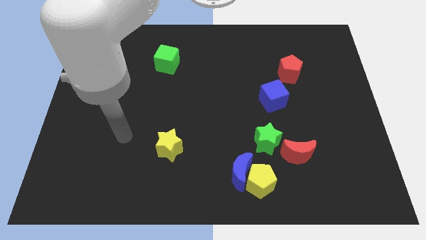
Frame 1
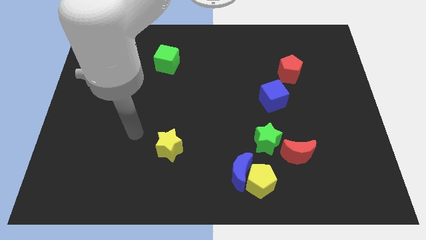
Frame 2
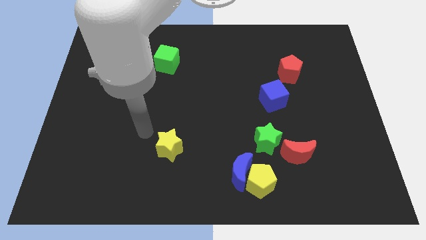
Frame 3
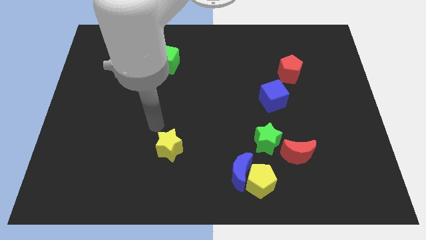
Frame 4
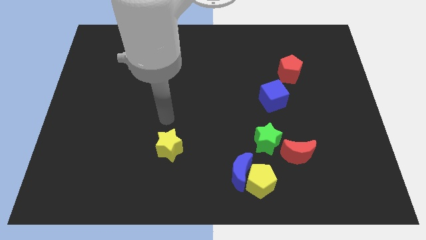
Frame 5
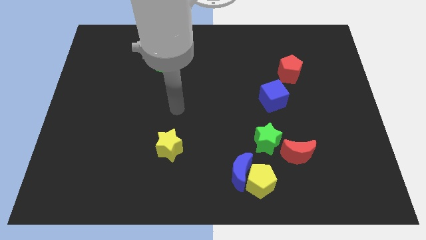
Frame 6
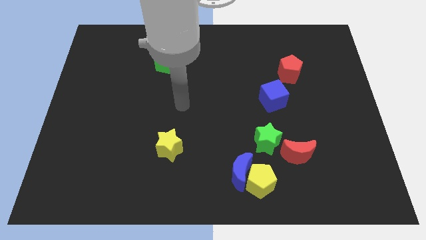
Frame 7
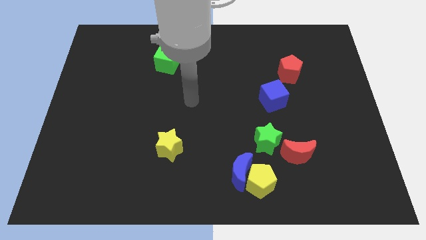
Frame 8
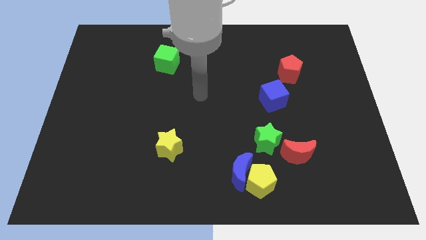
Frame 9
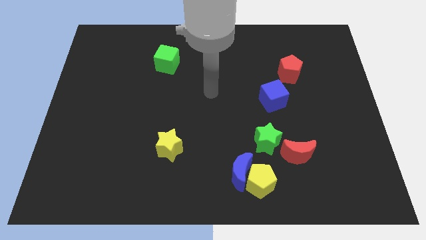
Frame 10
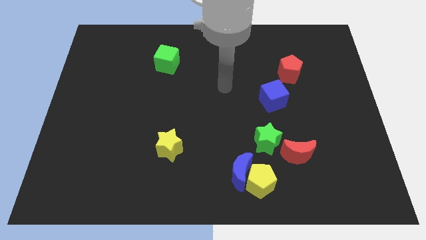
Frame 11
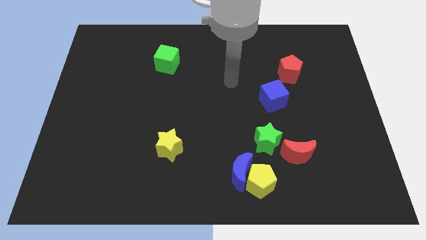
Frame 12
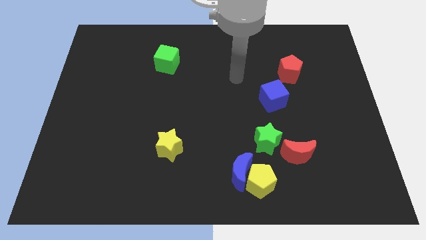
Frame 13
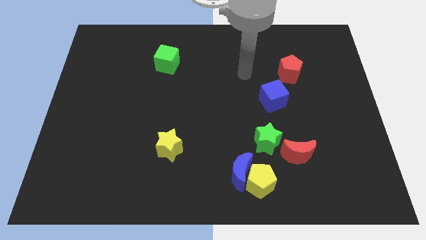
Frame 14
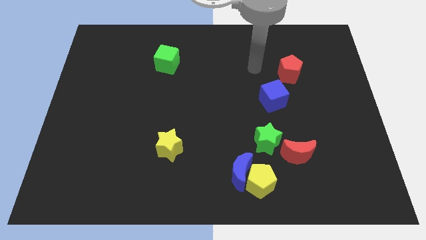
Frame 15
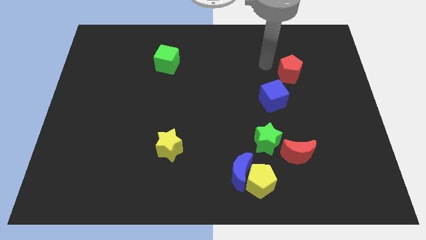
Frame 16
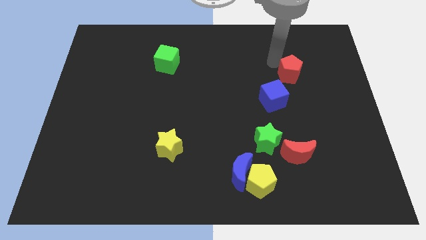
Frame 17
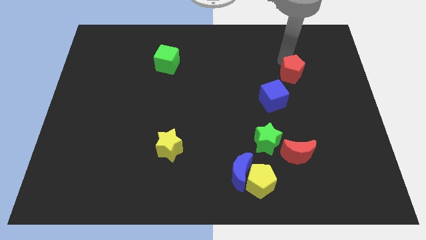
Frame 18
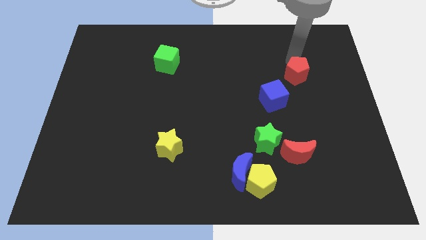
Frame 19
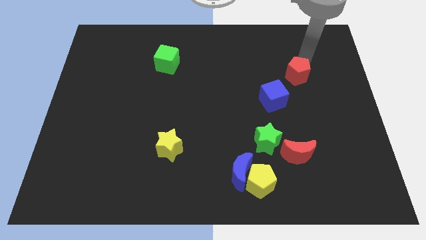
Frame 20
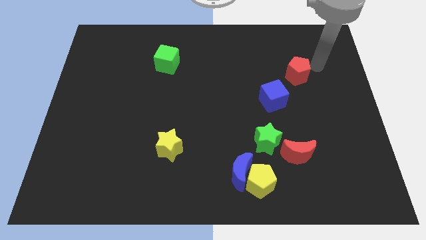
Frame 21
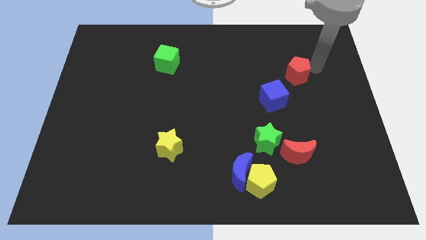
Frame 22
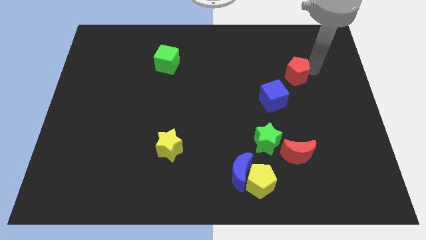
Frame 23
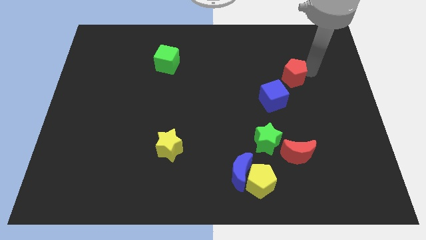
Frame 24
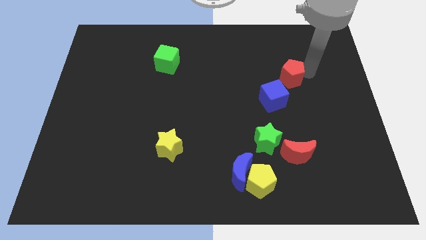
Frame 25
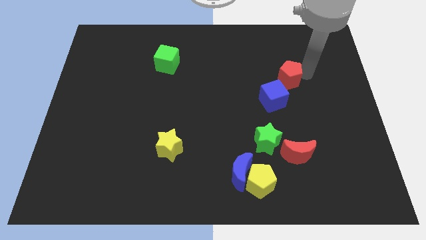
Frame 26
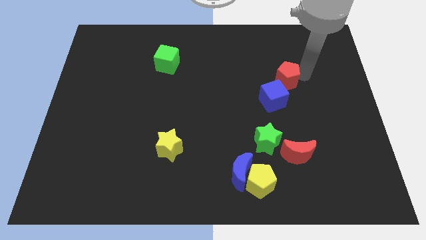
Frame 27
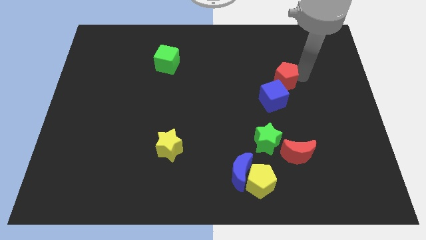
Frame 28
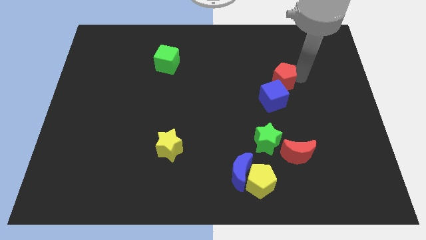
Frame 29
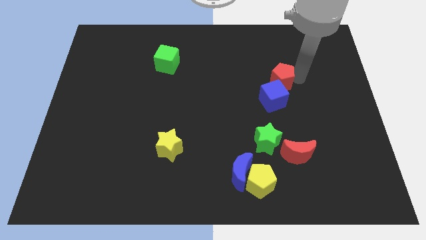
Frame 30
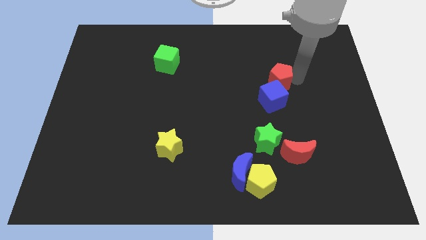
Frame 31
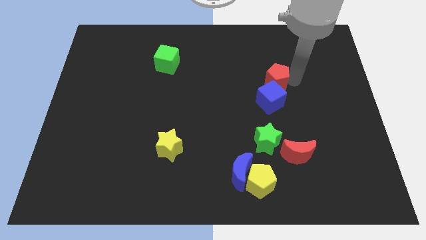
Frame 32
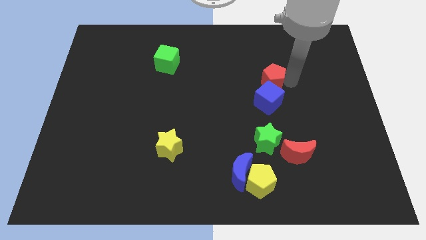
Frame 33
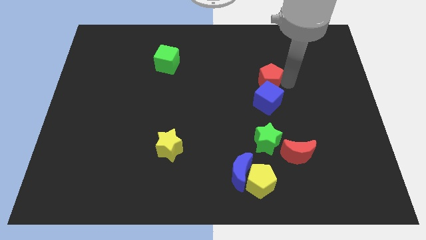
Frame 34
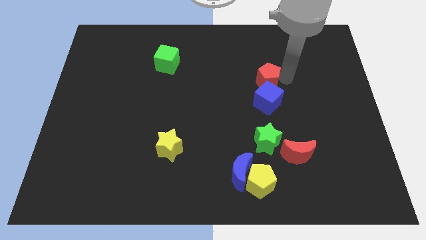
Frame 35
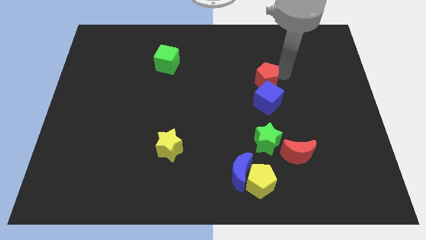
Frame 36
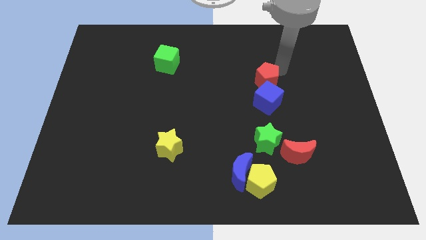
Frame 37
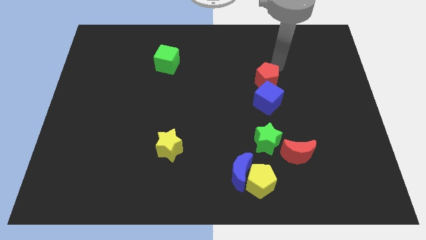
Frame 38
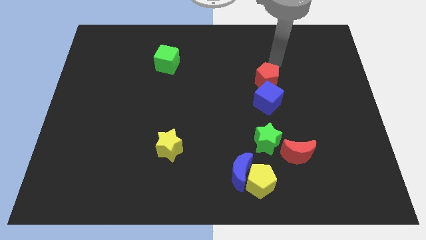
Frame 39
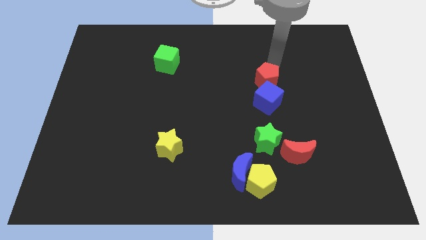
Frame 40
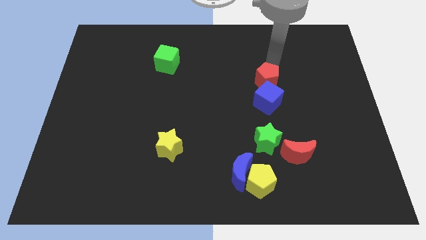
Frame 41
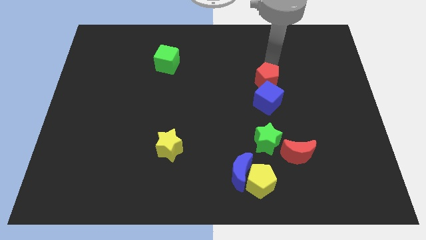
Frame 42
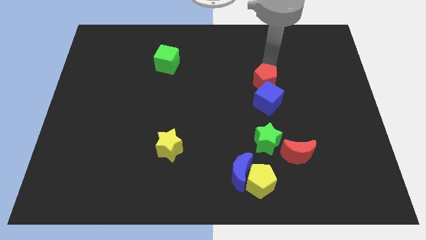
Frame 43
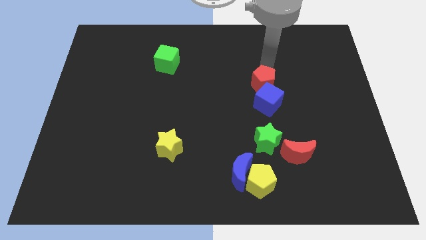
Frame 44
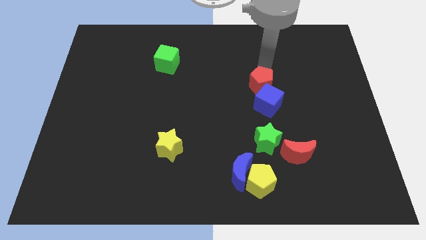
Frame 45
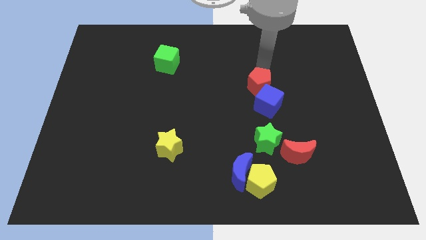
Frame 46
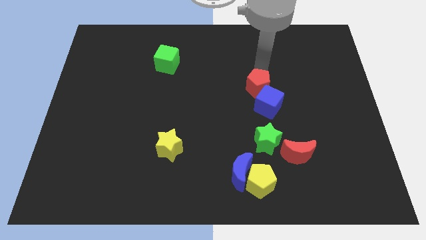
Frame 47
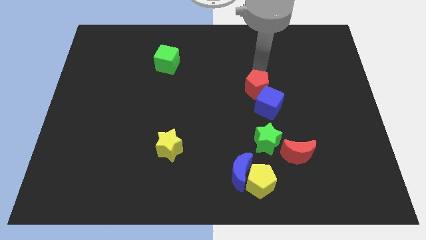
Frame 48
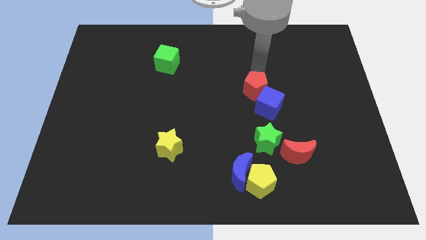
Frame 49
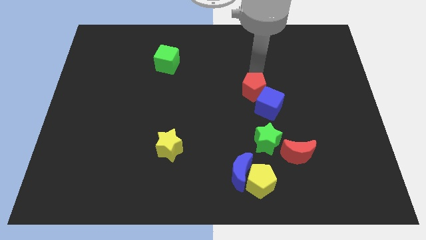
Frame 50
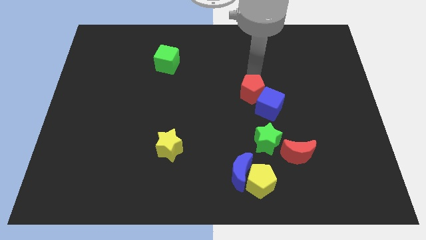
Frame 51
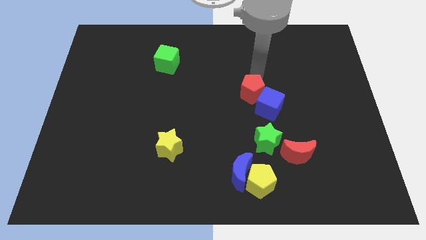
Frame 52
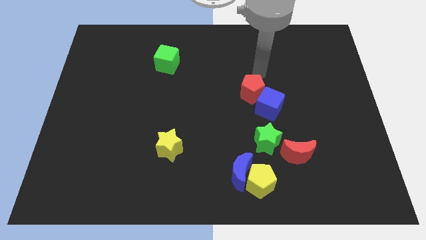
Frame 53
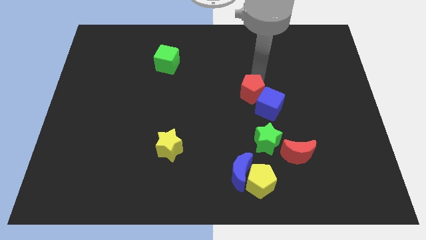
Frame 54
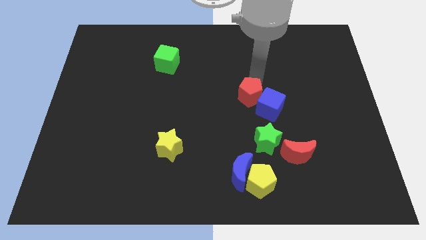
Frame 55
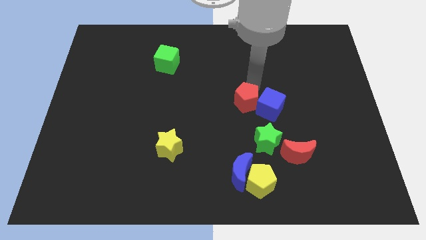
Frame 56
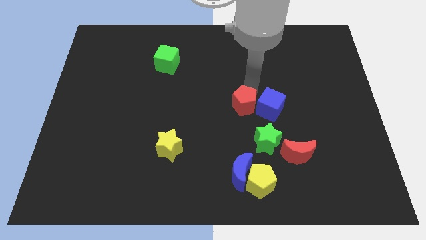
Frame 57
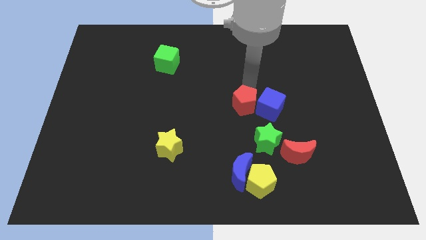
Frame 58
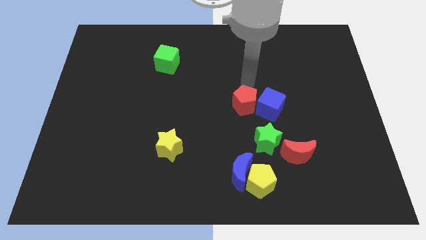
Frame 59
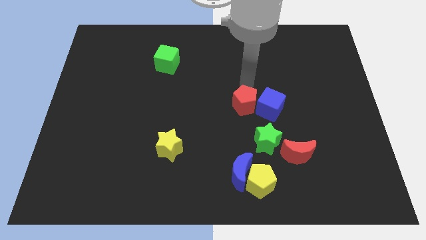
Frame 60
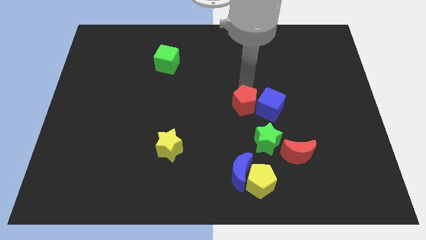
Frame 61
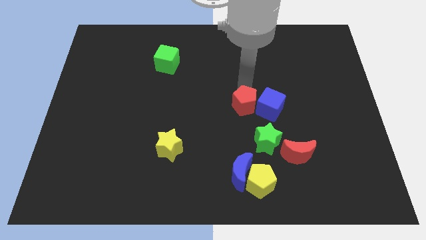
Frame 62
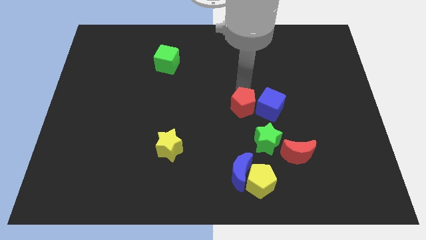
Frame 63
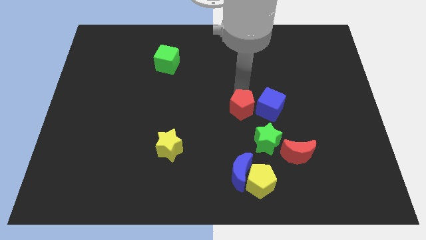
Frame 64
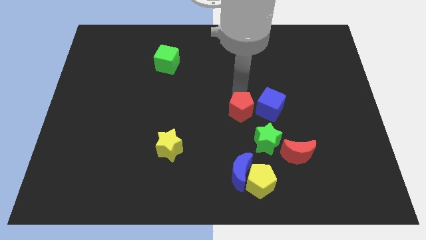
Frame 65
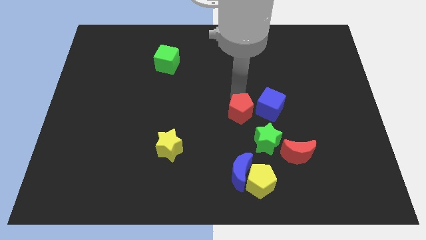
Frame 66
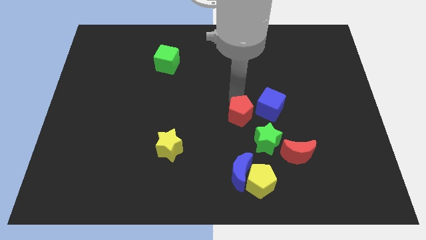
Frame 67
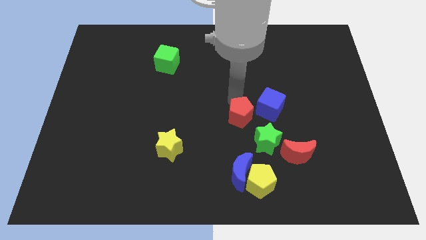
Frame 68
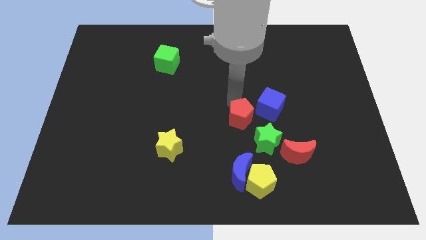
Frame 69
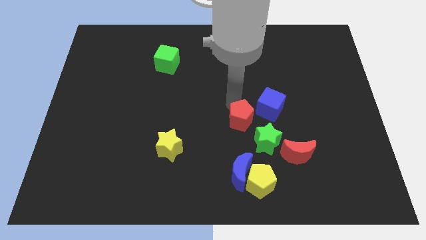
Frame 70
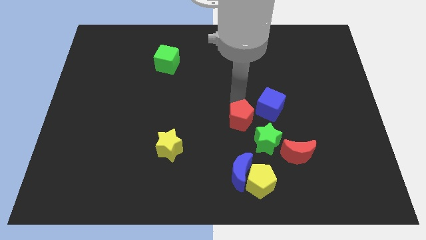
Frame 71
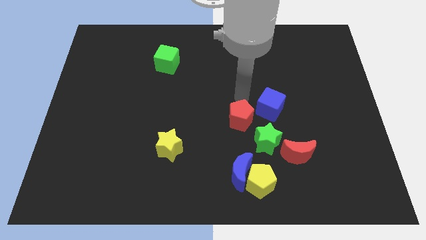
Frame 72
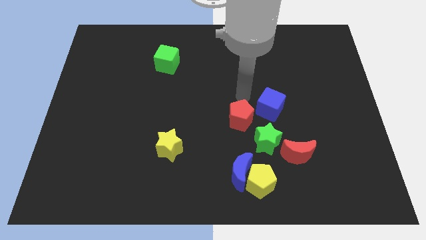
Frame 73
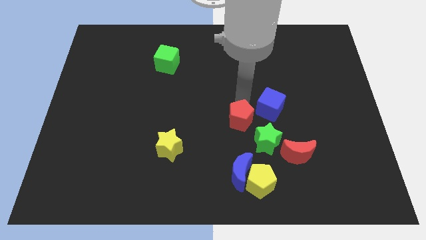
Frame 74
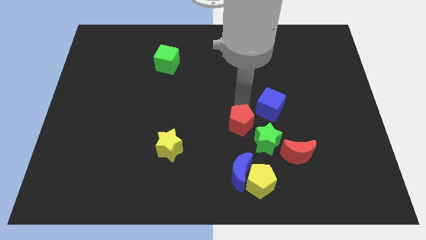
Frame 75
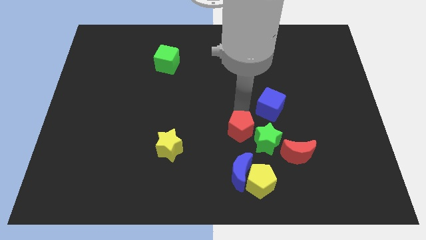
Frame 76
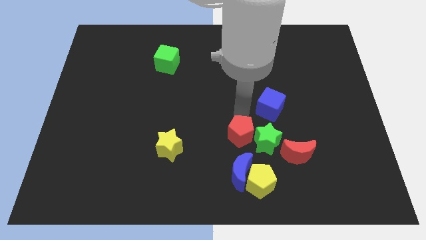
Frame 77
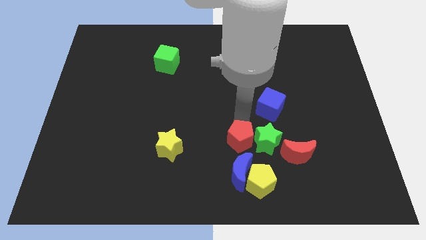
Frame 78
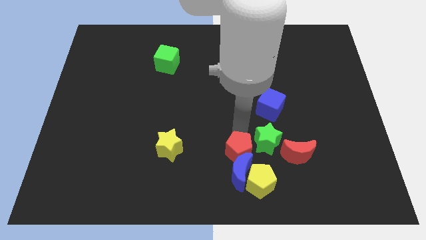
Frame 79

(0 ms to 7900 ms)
move the red pentagon close to the blue moon
